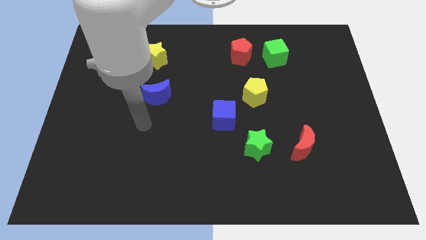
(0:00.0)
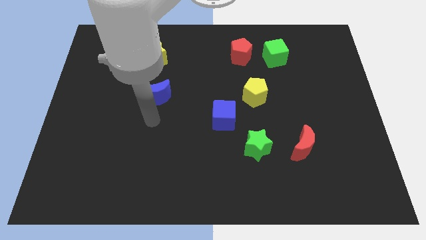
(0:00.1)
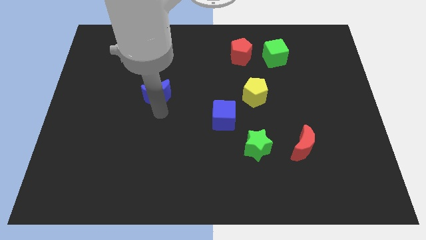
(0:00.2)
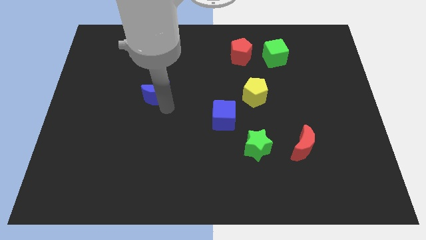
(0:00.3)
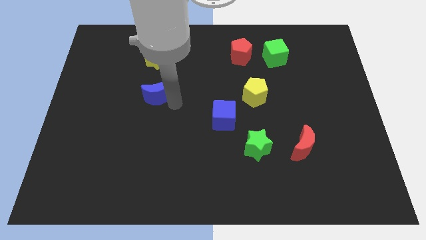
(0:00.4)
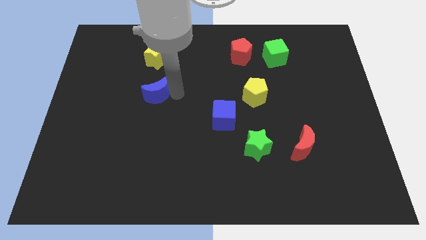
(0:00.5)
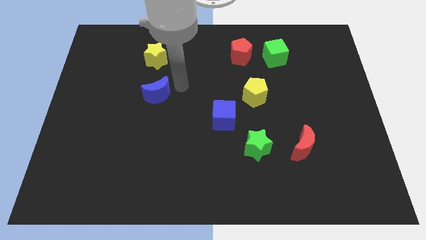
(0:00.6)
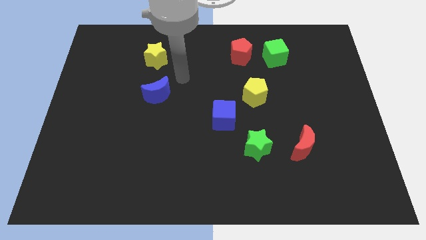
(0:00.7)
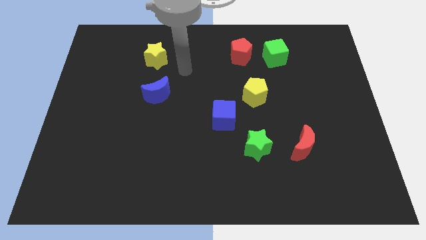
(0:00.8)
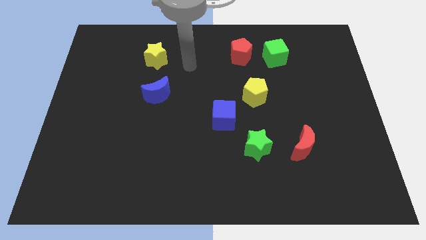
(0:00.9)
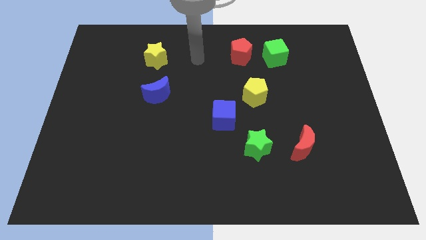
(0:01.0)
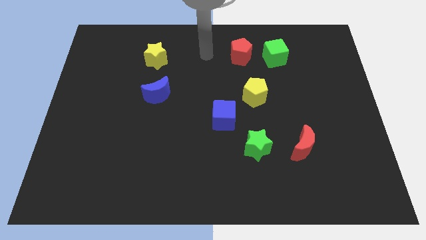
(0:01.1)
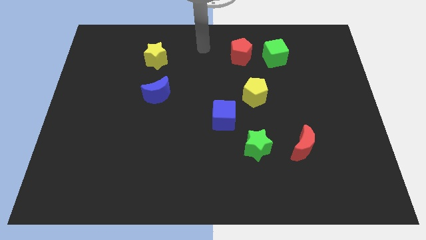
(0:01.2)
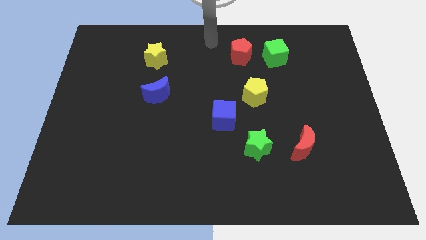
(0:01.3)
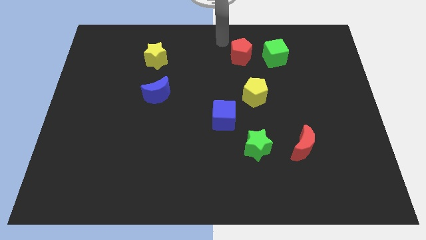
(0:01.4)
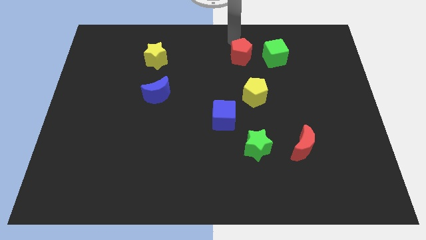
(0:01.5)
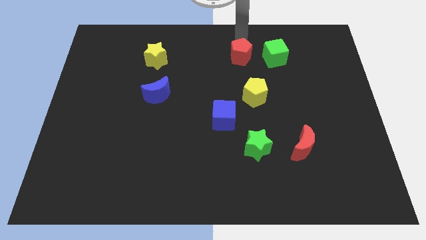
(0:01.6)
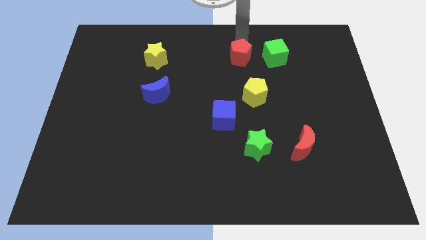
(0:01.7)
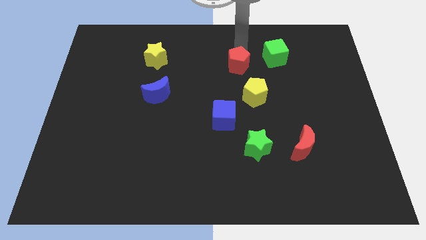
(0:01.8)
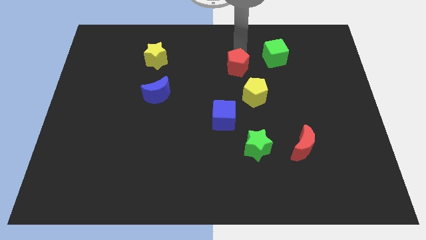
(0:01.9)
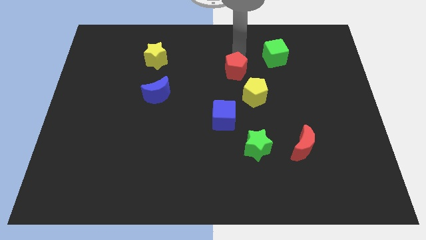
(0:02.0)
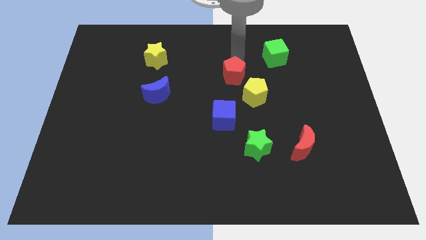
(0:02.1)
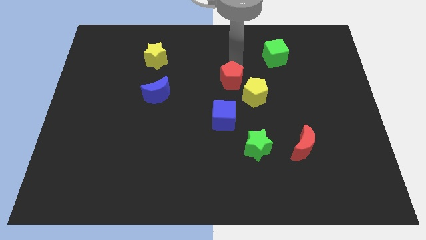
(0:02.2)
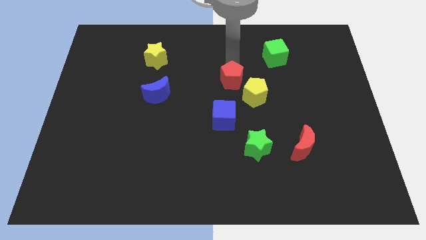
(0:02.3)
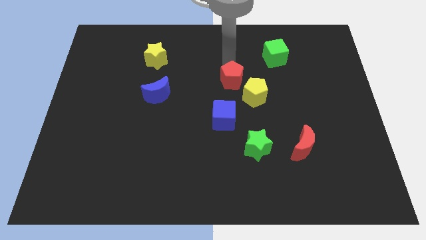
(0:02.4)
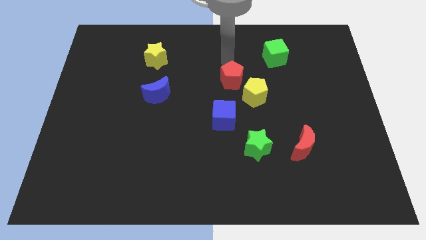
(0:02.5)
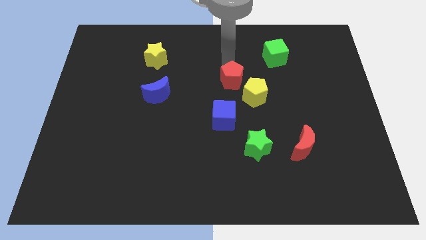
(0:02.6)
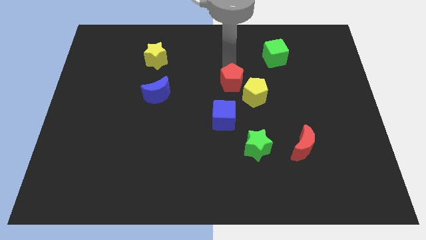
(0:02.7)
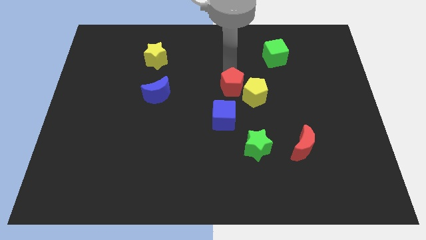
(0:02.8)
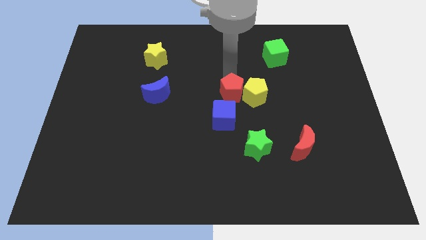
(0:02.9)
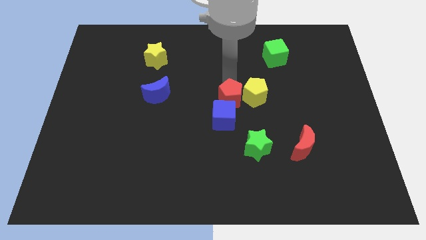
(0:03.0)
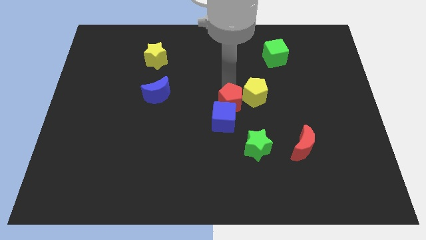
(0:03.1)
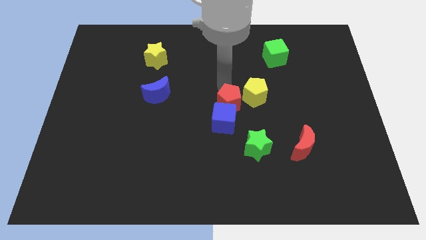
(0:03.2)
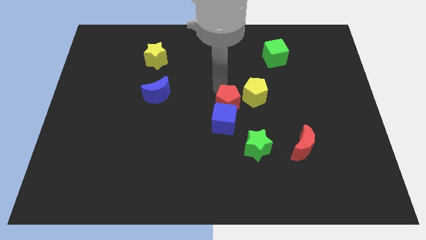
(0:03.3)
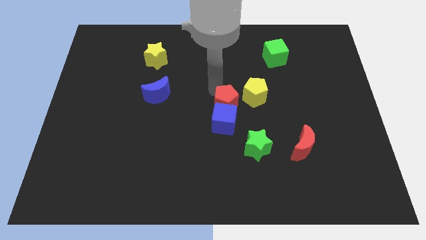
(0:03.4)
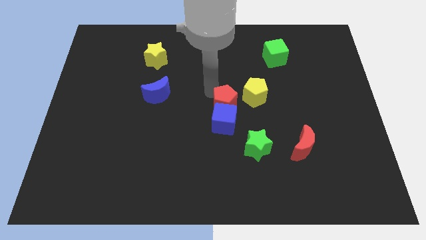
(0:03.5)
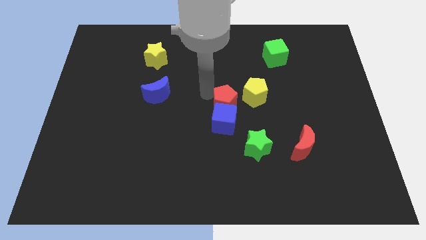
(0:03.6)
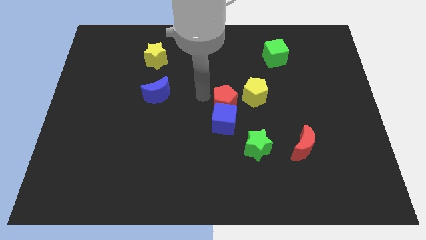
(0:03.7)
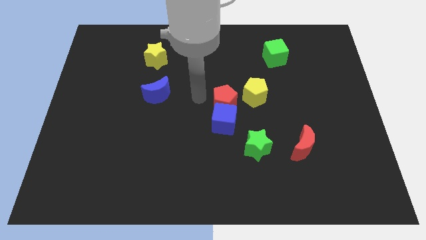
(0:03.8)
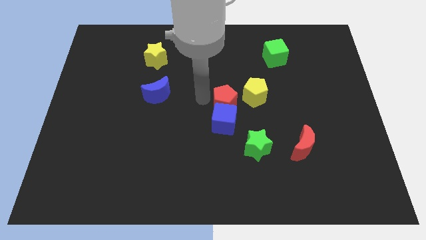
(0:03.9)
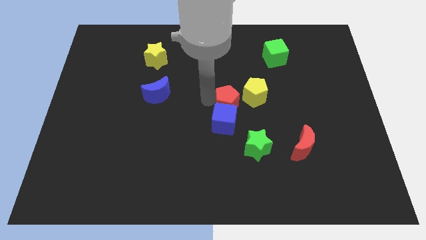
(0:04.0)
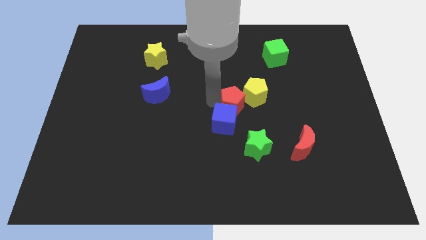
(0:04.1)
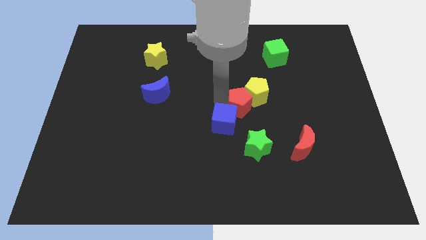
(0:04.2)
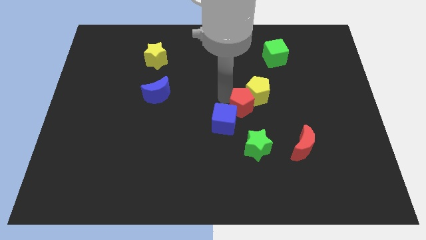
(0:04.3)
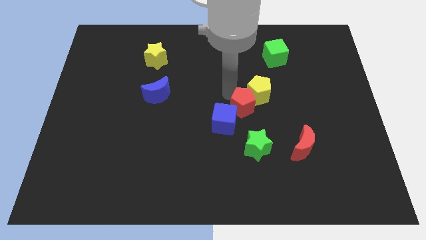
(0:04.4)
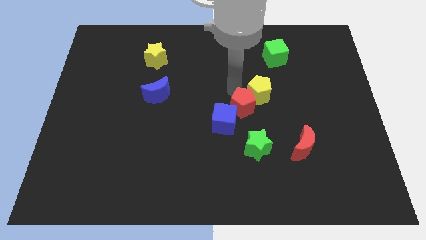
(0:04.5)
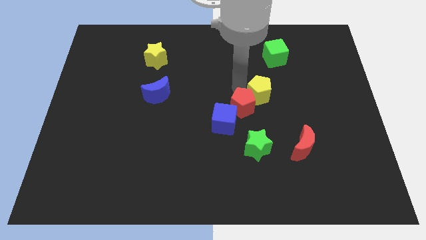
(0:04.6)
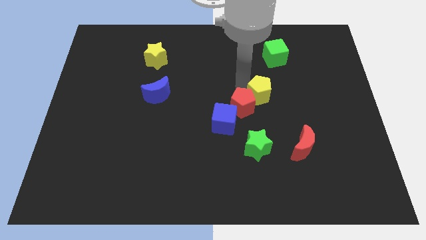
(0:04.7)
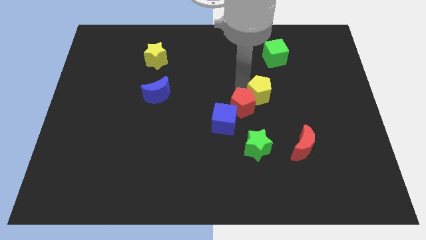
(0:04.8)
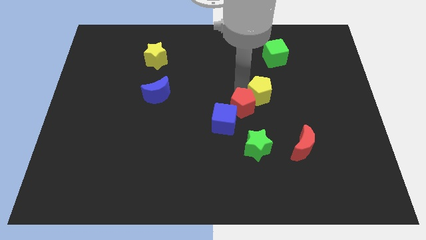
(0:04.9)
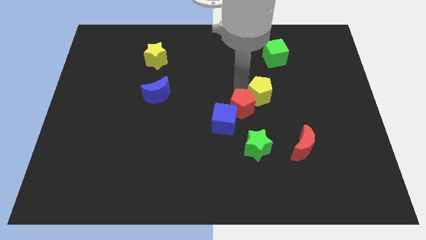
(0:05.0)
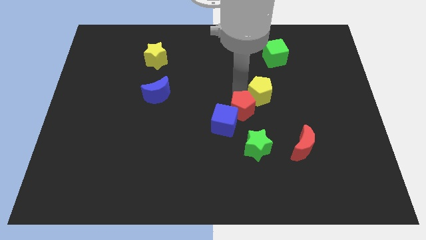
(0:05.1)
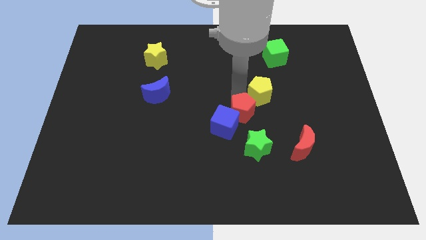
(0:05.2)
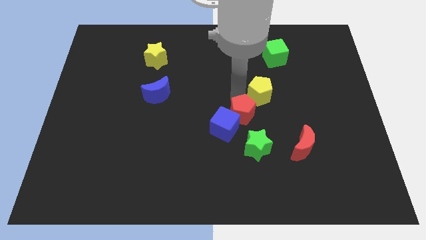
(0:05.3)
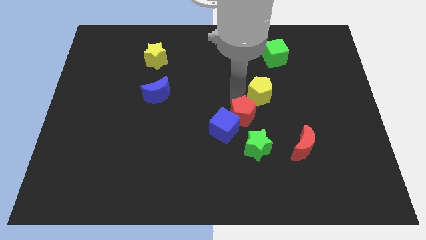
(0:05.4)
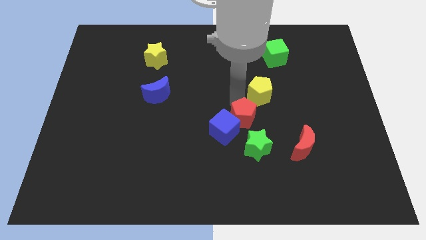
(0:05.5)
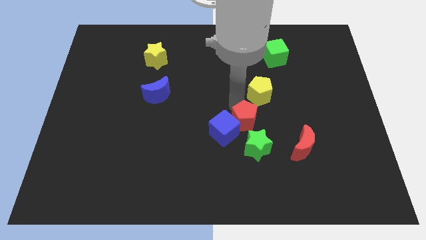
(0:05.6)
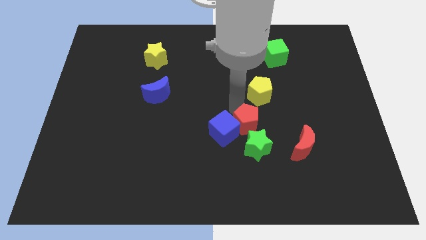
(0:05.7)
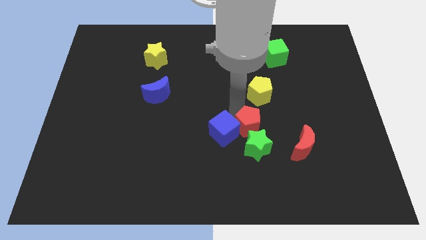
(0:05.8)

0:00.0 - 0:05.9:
put the red pentagon next to the green star

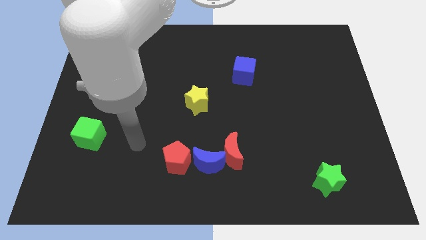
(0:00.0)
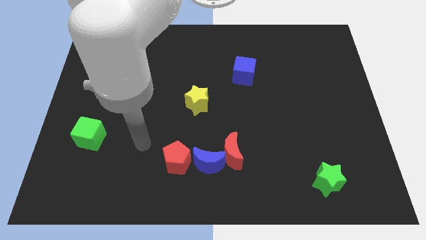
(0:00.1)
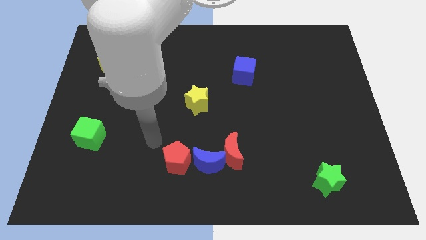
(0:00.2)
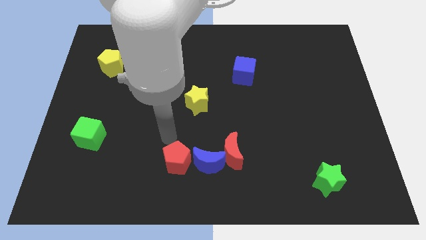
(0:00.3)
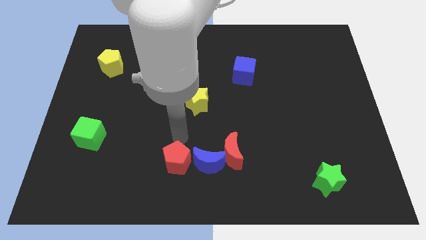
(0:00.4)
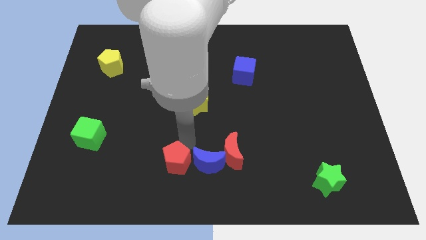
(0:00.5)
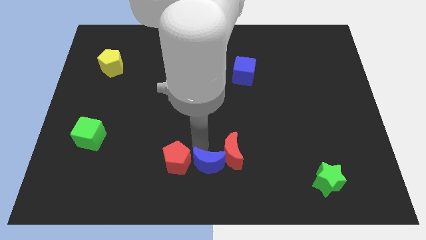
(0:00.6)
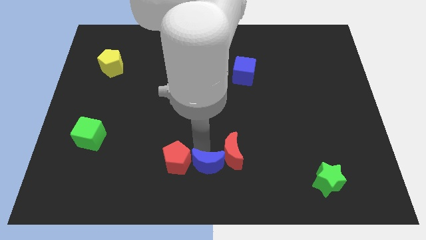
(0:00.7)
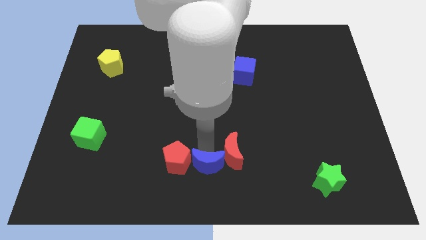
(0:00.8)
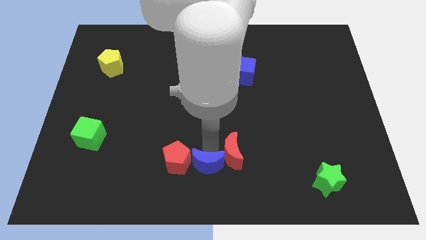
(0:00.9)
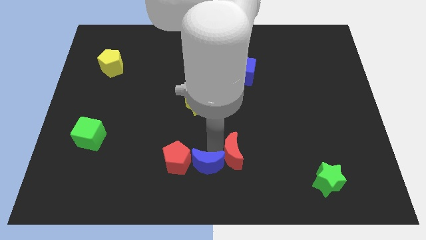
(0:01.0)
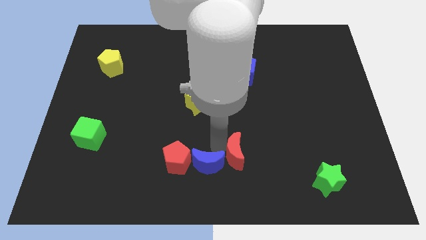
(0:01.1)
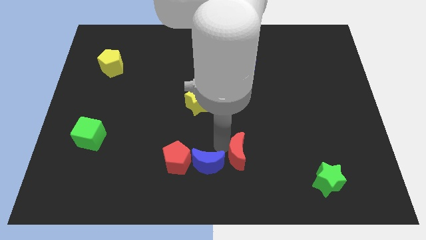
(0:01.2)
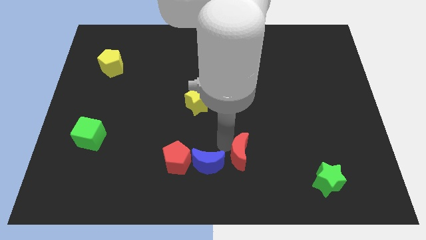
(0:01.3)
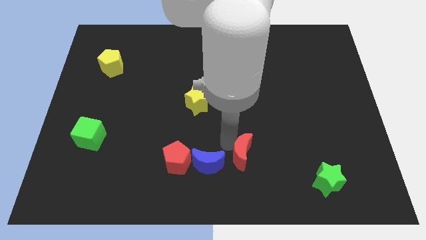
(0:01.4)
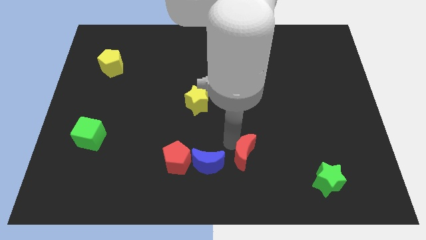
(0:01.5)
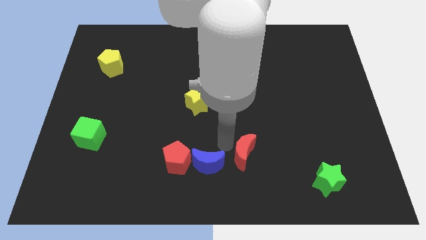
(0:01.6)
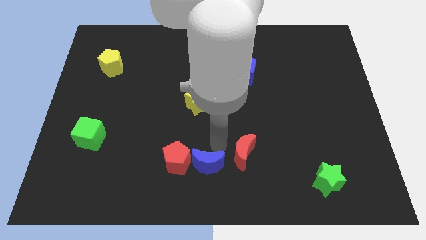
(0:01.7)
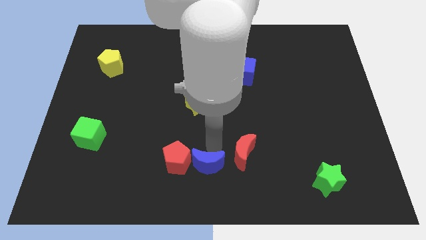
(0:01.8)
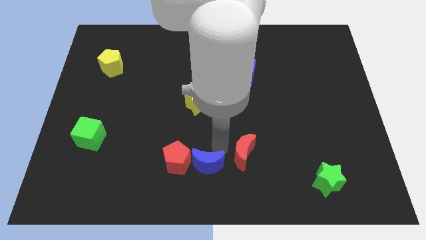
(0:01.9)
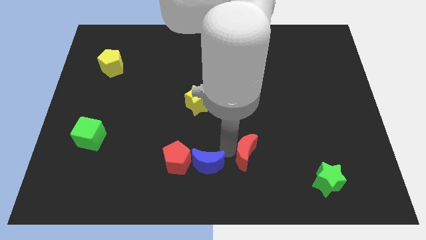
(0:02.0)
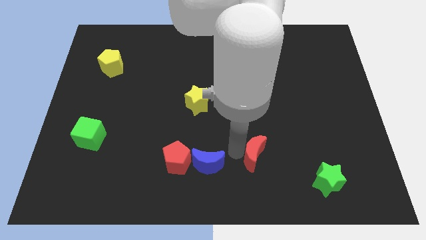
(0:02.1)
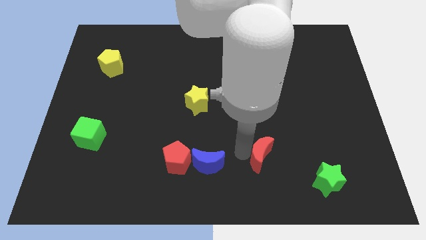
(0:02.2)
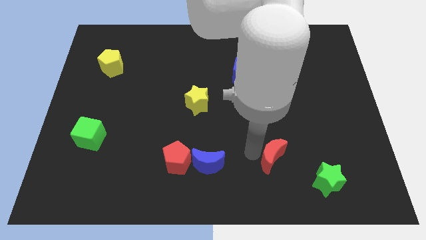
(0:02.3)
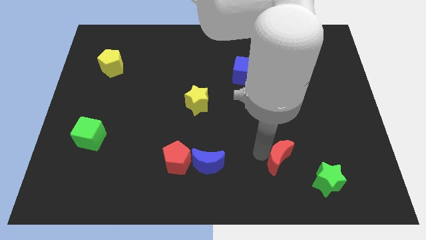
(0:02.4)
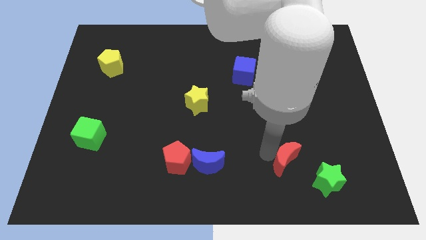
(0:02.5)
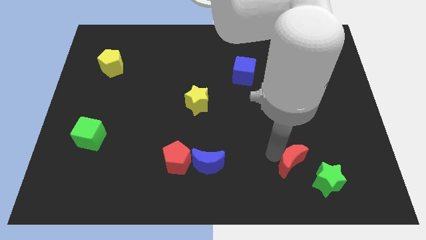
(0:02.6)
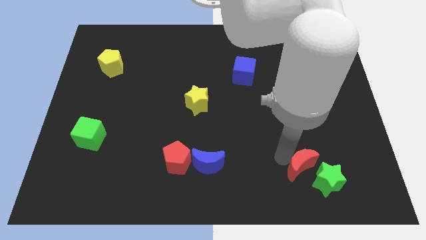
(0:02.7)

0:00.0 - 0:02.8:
put the red moon towards the green star
